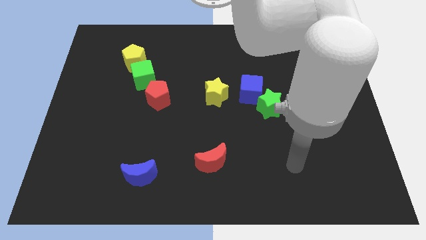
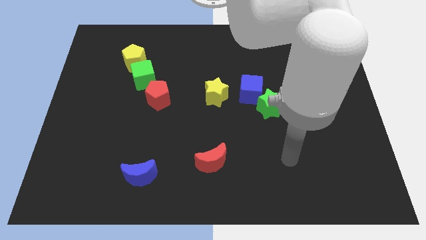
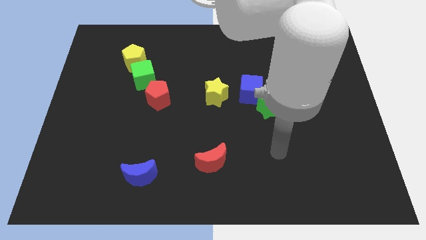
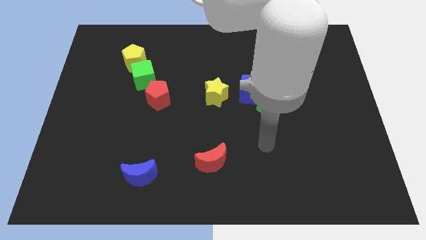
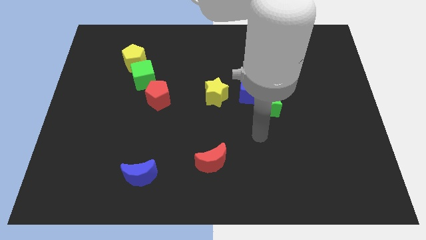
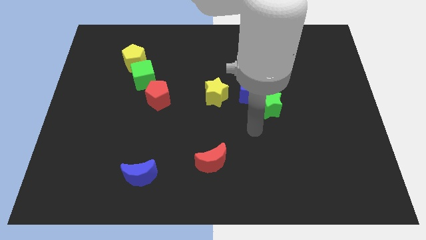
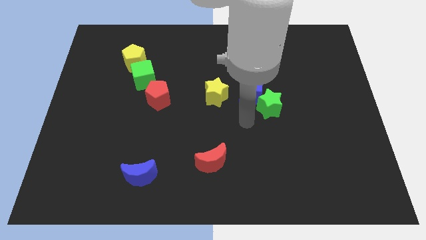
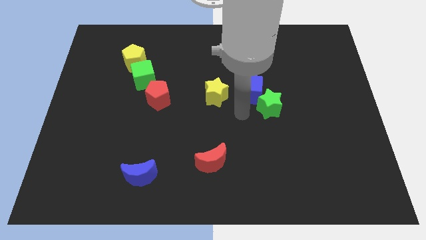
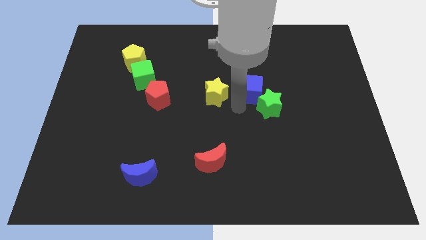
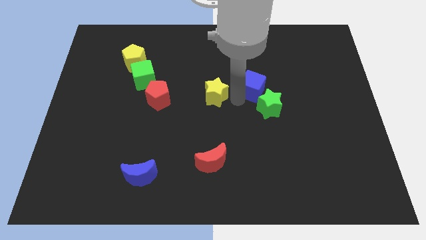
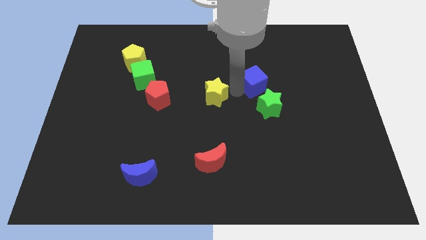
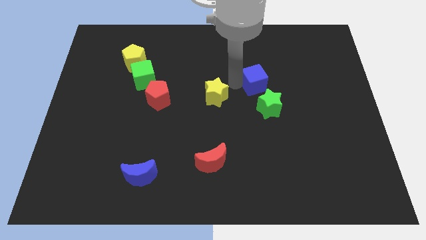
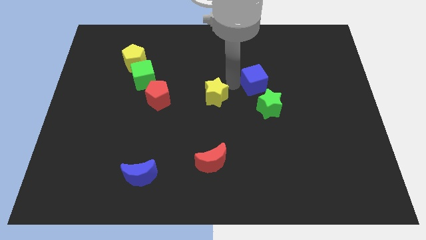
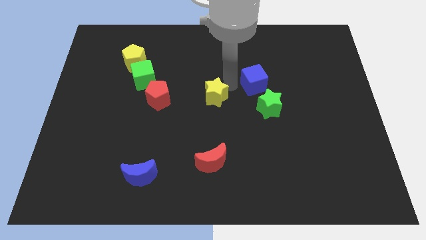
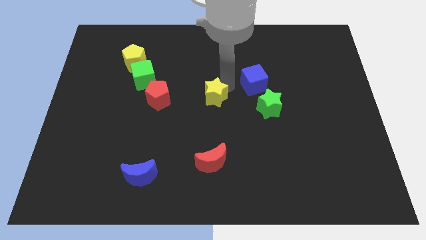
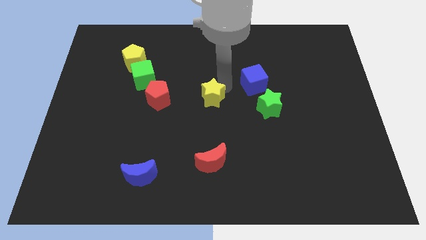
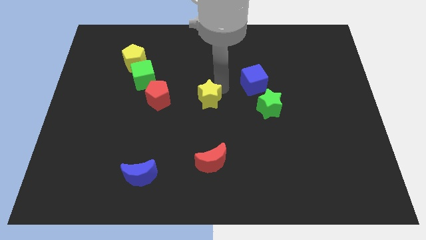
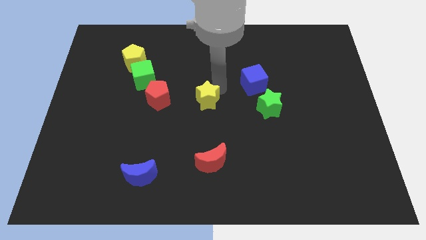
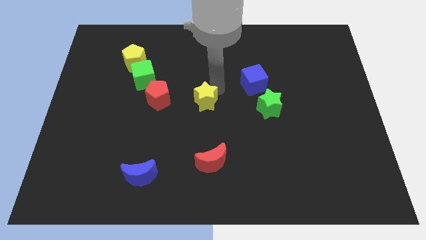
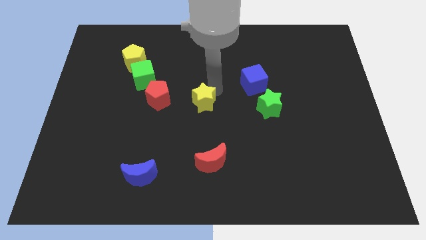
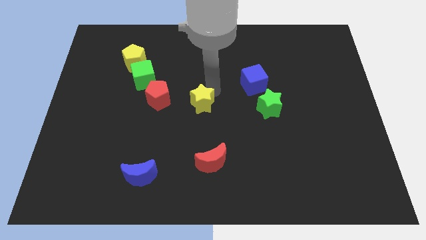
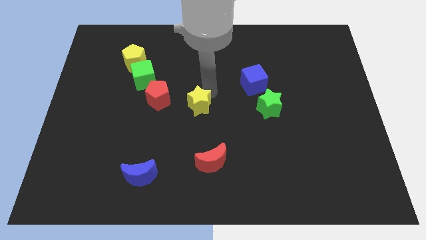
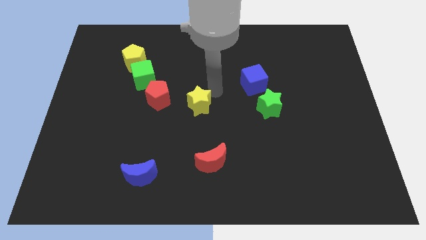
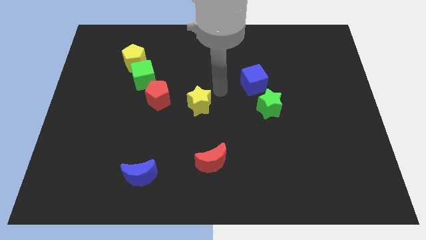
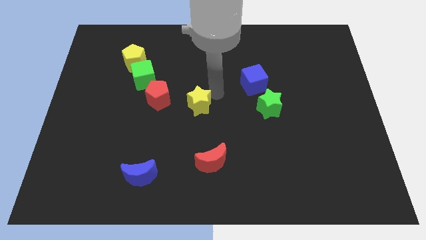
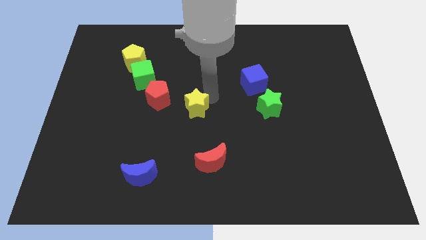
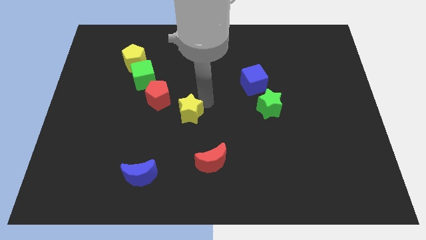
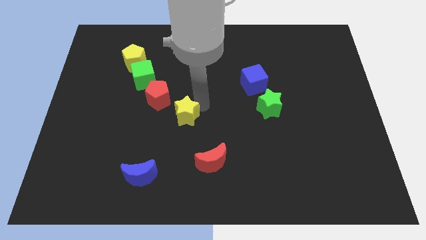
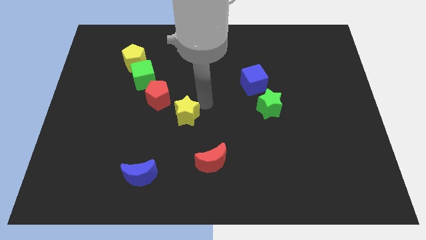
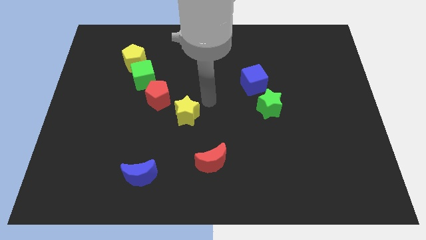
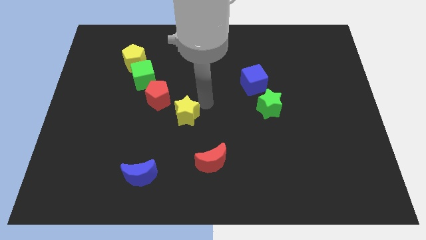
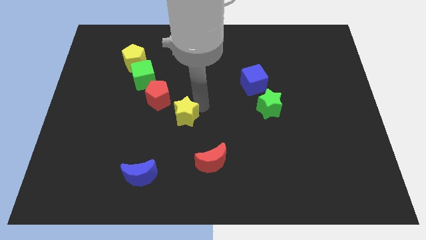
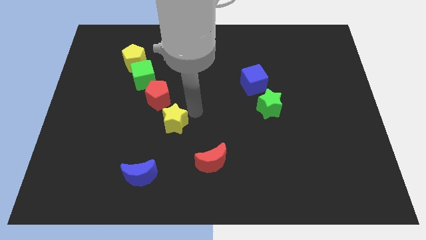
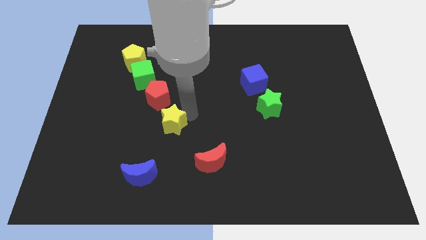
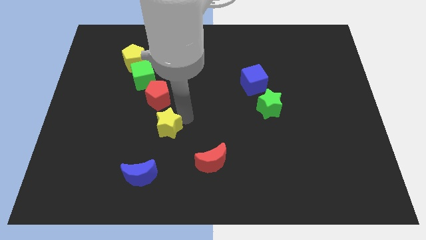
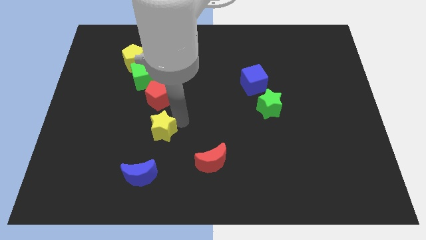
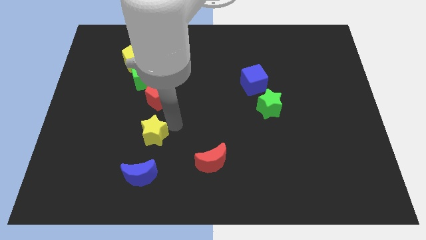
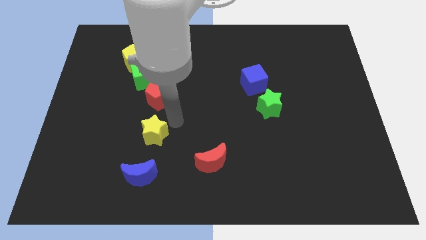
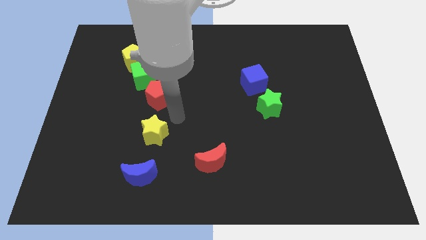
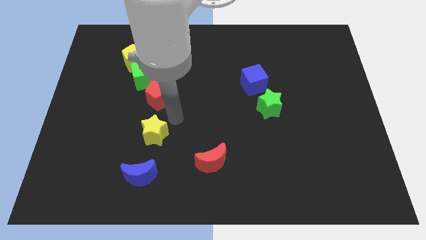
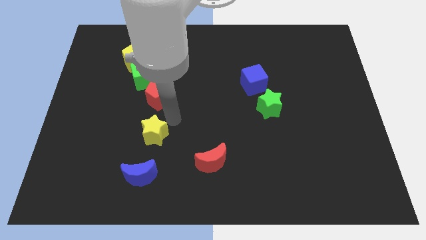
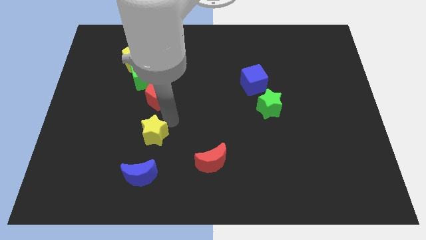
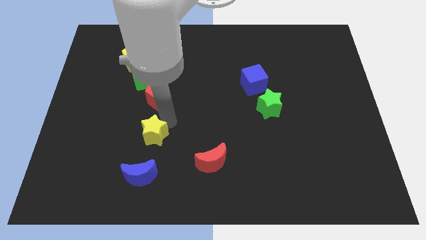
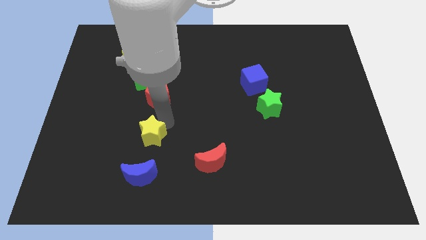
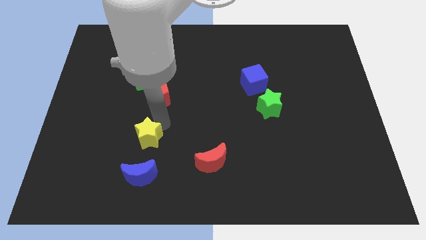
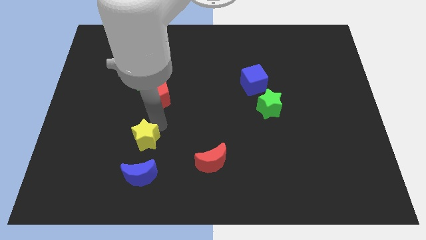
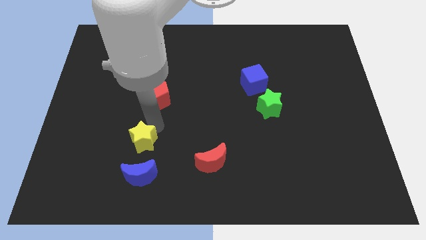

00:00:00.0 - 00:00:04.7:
slide the yellow star down and left diagonally

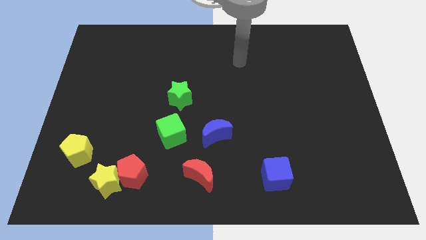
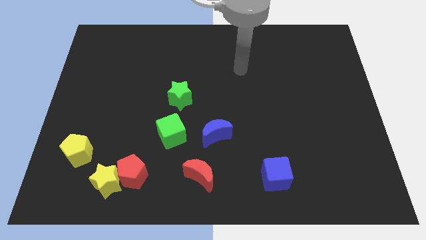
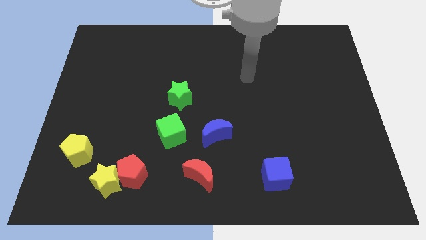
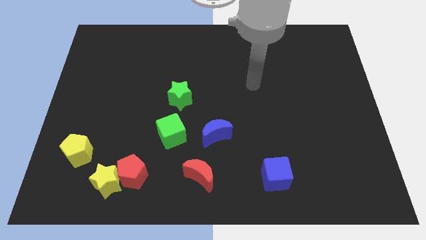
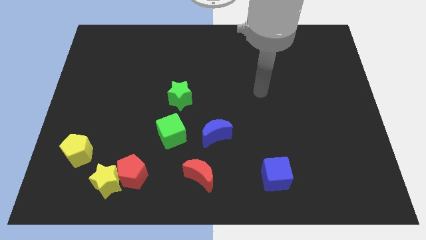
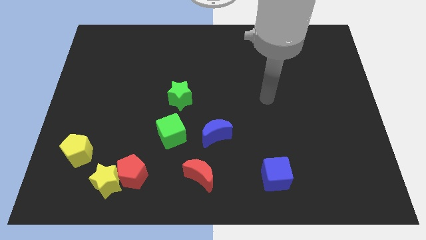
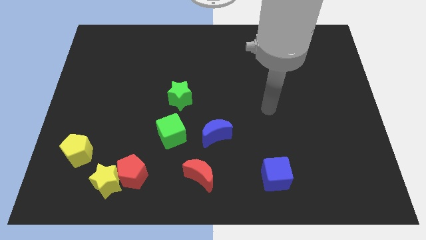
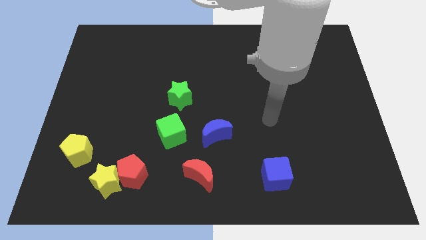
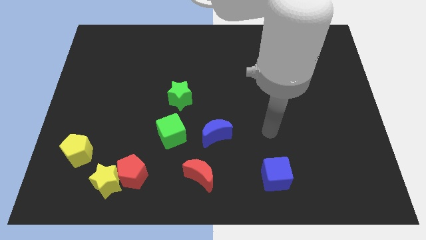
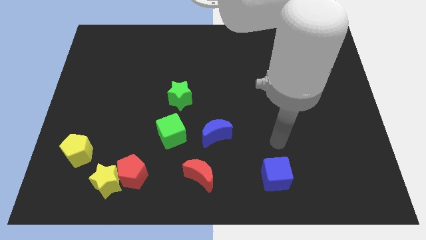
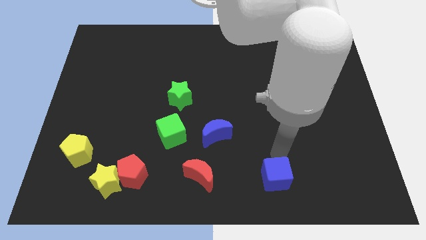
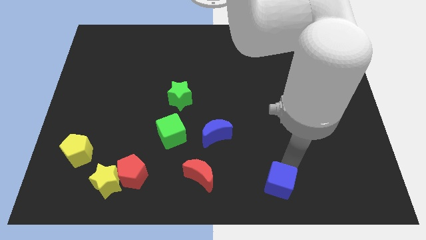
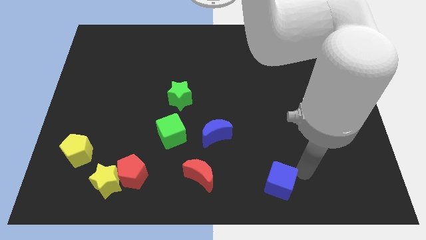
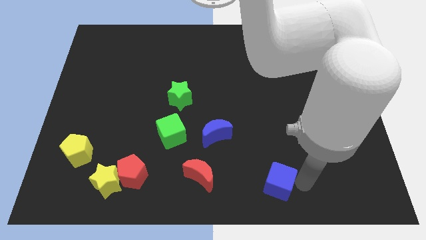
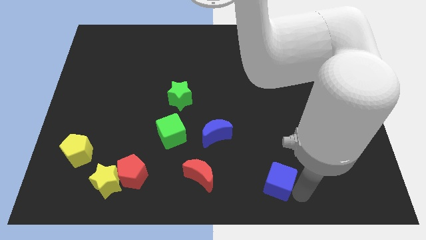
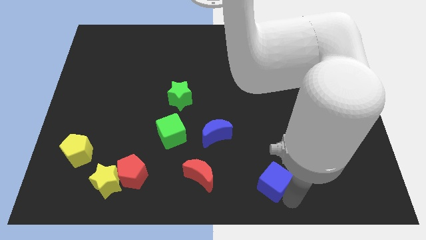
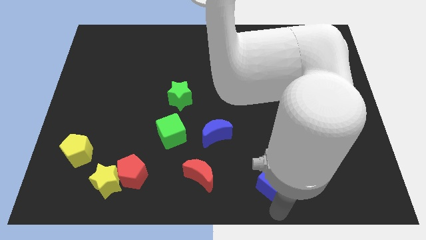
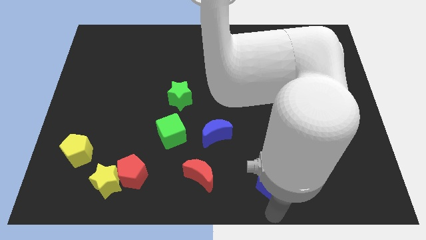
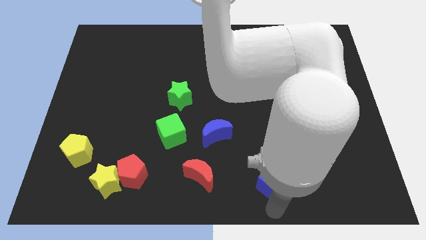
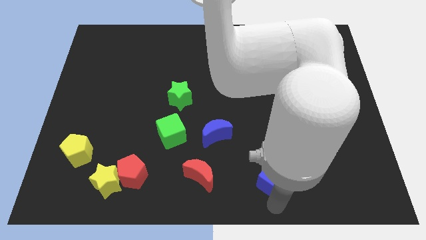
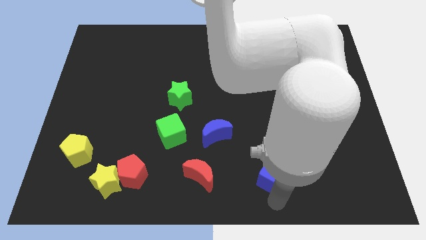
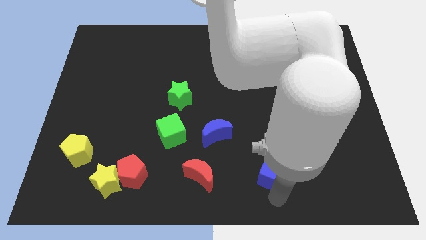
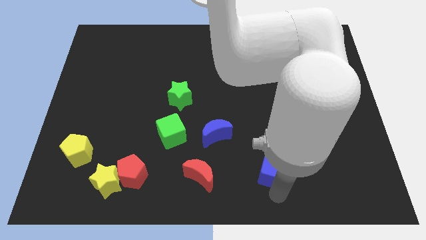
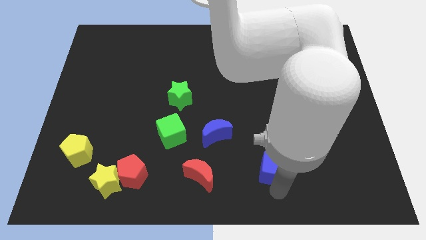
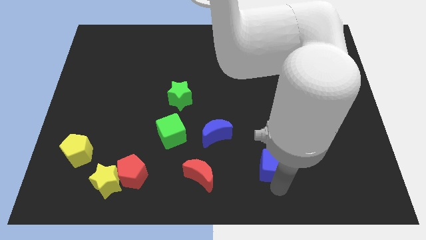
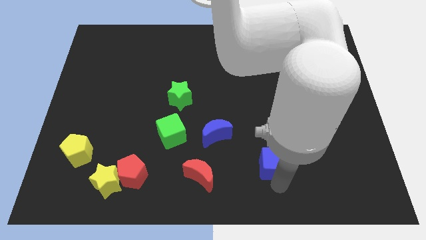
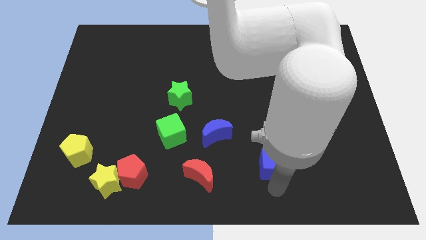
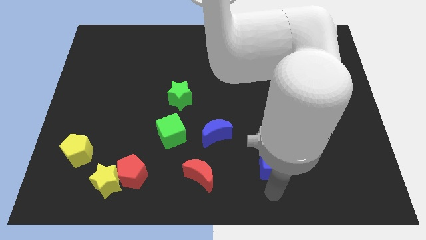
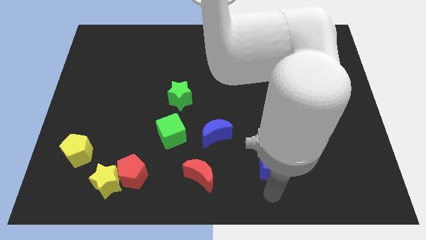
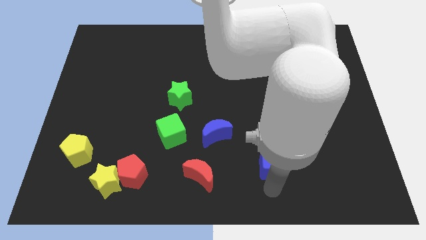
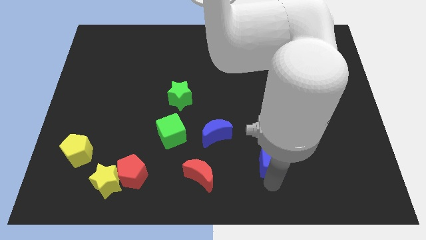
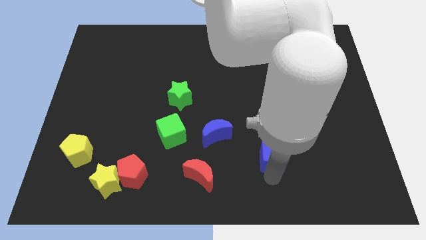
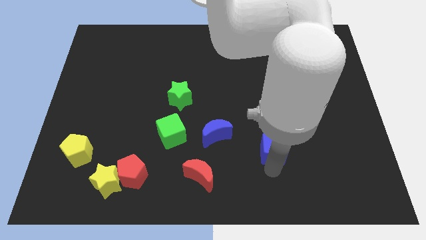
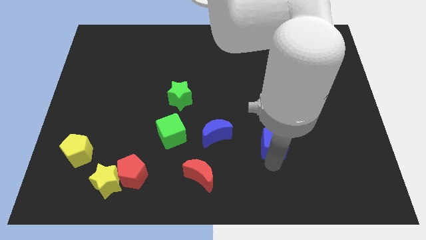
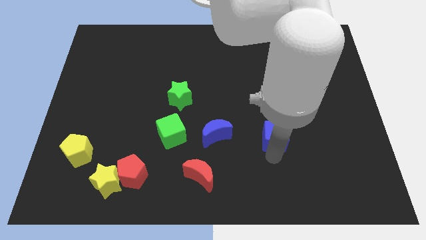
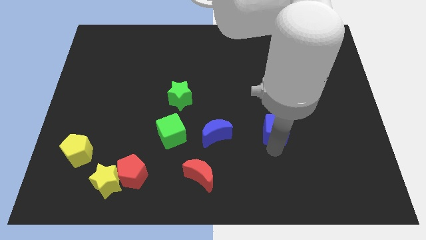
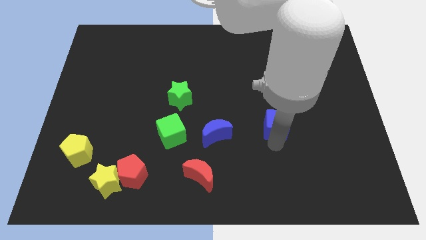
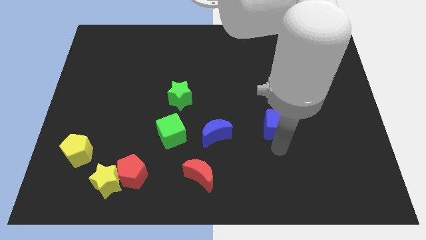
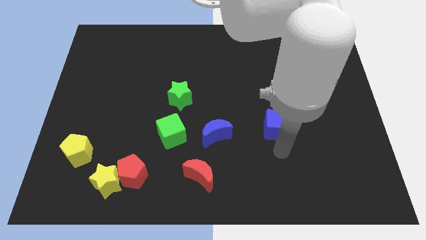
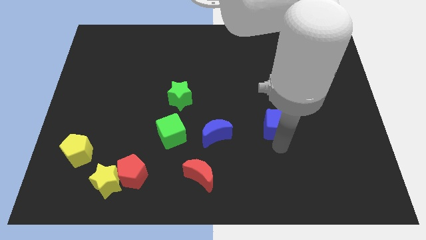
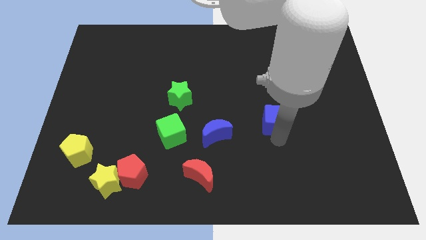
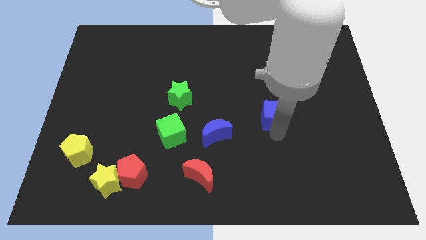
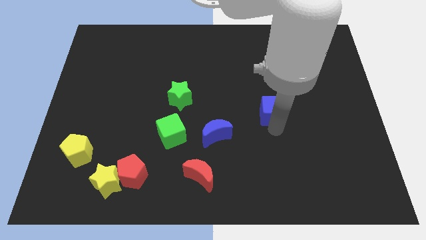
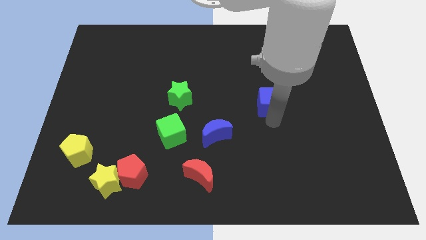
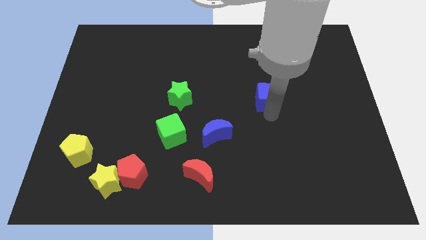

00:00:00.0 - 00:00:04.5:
push the blue cube up
